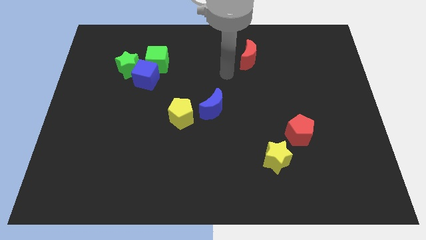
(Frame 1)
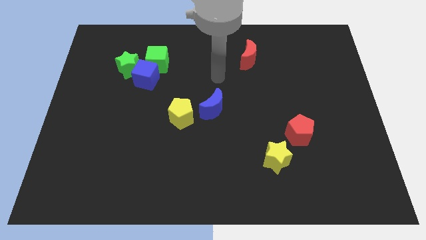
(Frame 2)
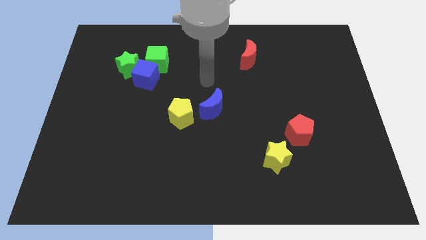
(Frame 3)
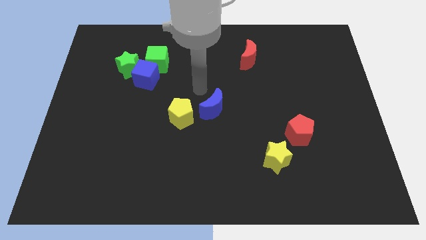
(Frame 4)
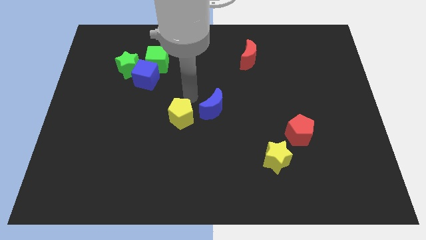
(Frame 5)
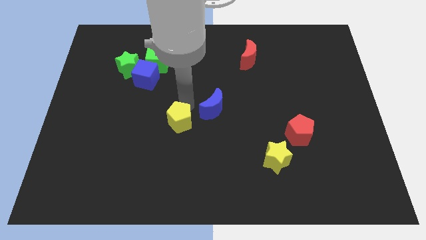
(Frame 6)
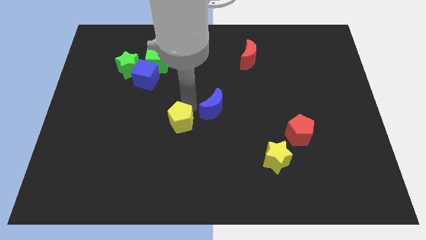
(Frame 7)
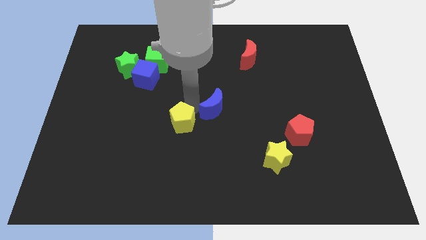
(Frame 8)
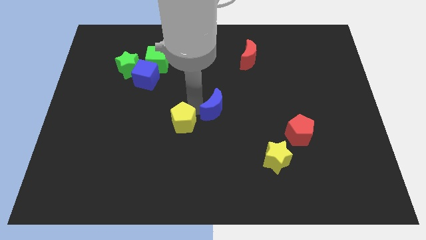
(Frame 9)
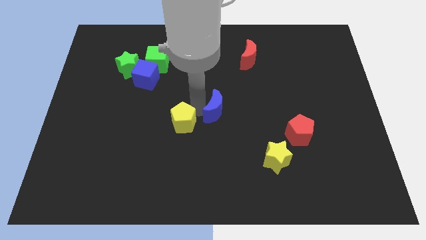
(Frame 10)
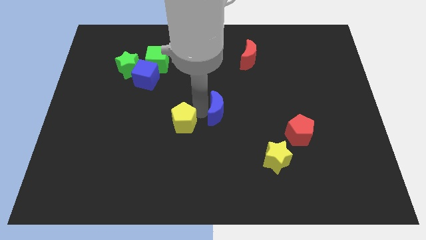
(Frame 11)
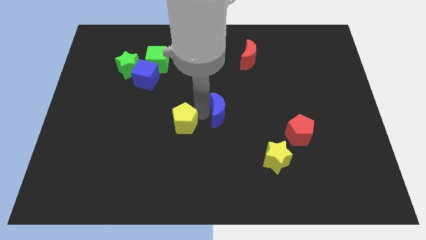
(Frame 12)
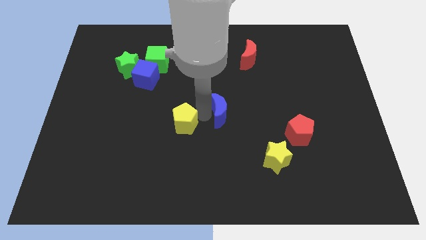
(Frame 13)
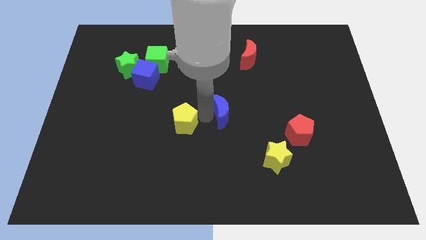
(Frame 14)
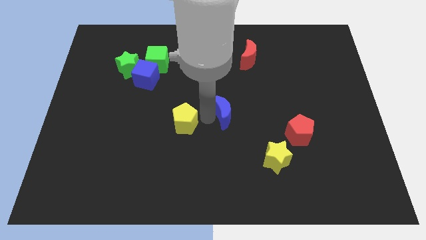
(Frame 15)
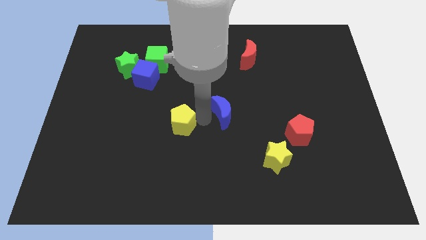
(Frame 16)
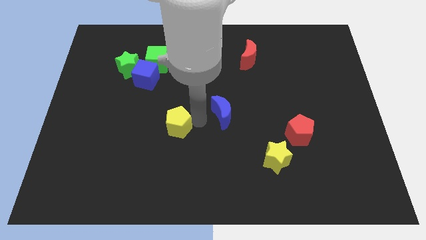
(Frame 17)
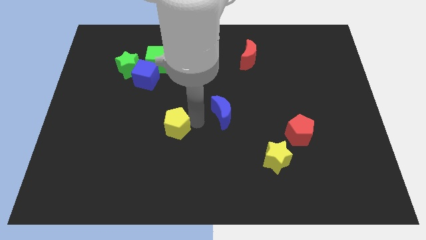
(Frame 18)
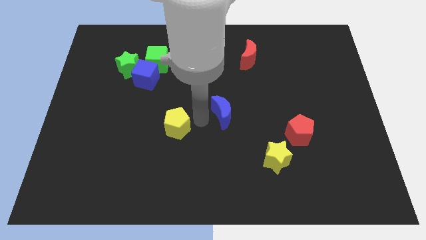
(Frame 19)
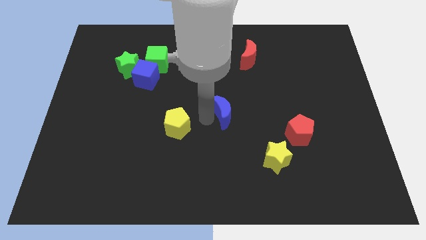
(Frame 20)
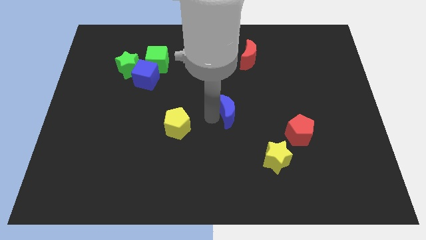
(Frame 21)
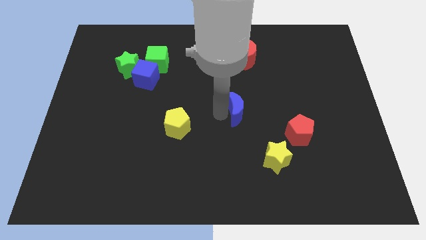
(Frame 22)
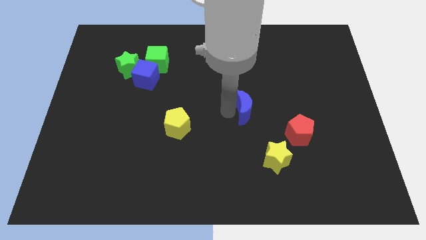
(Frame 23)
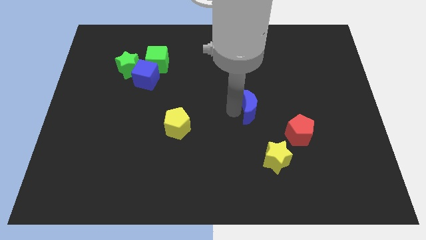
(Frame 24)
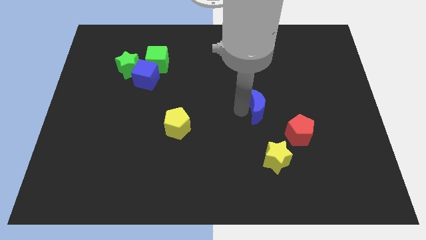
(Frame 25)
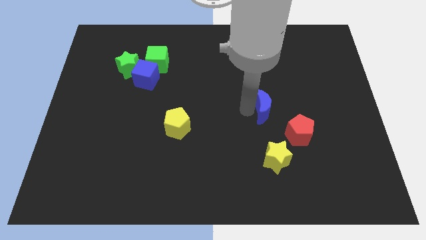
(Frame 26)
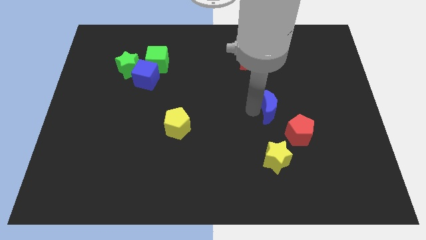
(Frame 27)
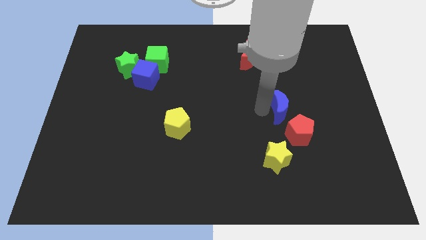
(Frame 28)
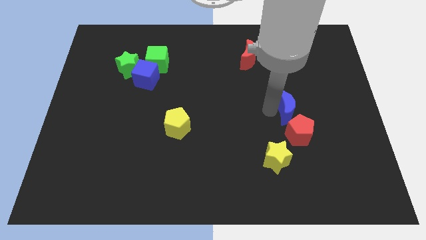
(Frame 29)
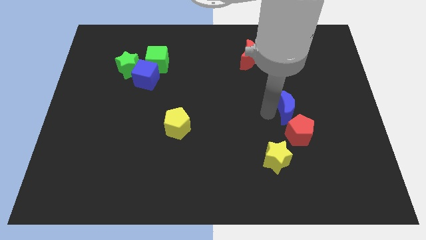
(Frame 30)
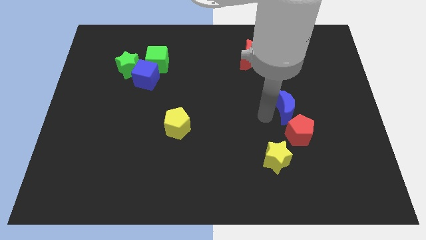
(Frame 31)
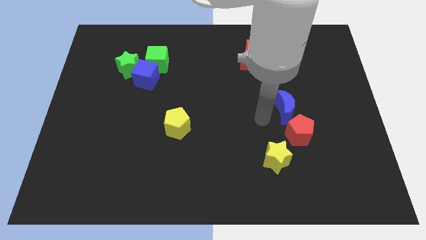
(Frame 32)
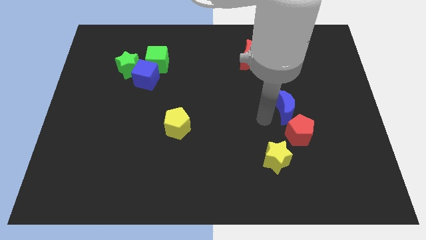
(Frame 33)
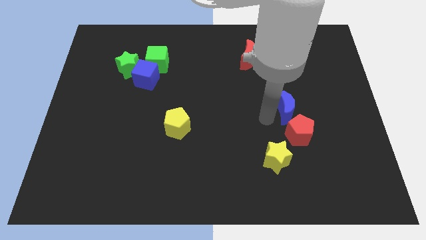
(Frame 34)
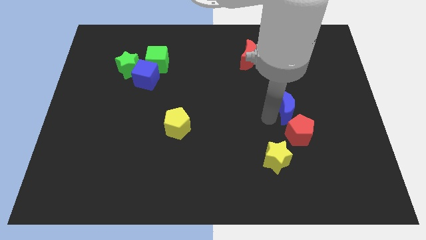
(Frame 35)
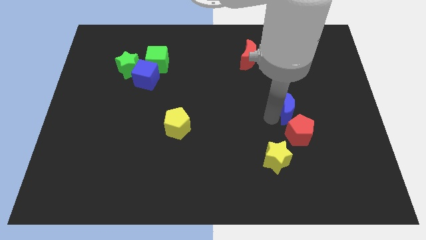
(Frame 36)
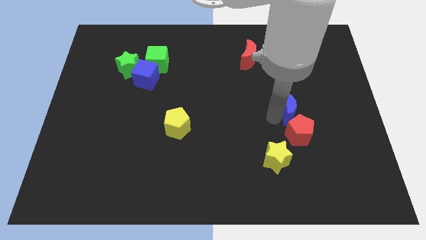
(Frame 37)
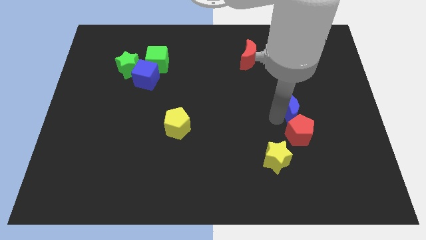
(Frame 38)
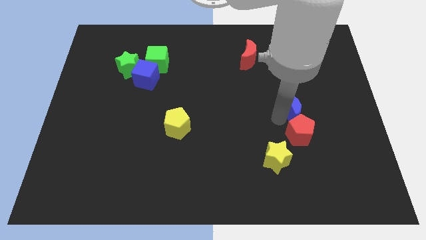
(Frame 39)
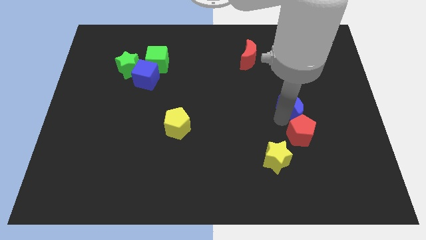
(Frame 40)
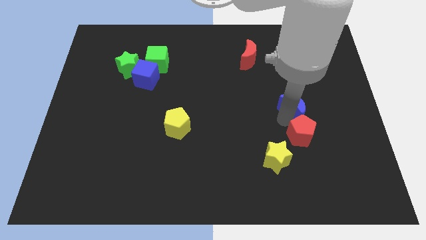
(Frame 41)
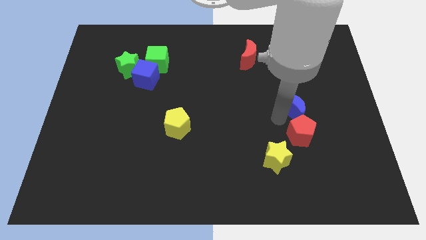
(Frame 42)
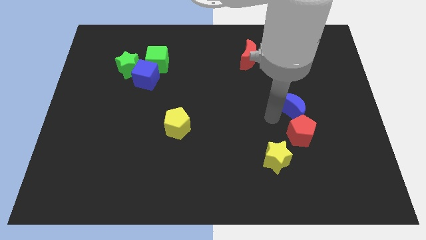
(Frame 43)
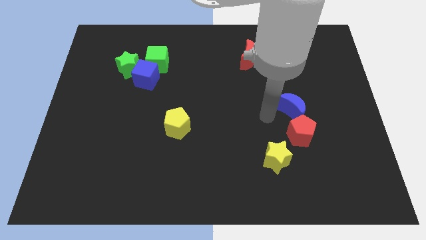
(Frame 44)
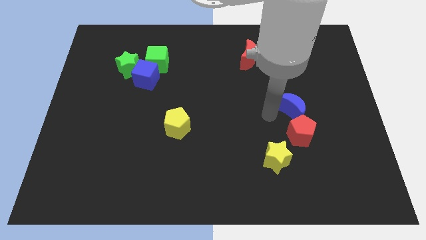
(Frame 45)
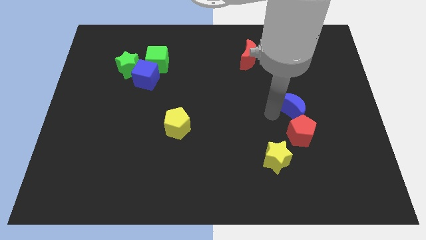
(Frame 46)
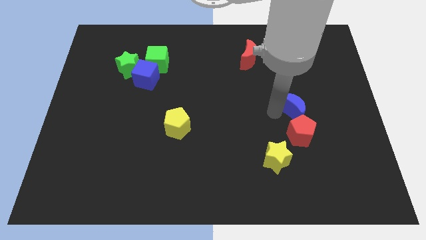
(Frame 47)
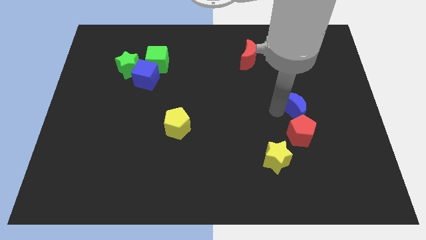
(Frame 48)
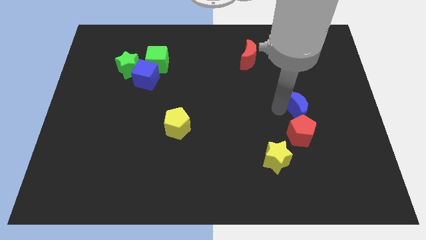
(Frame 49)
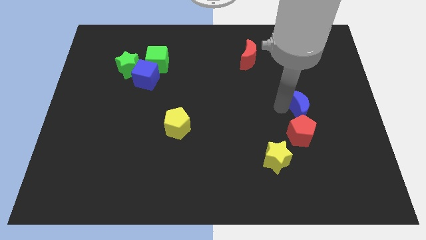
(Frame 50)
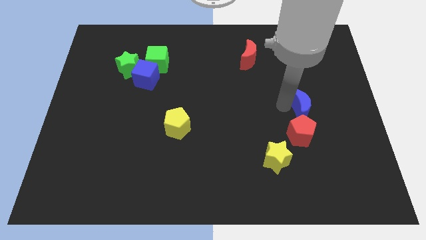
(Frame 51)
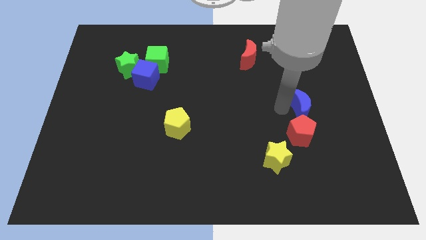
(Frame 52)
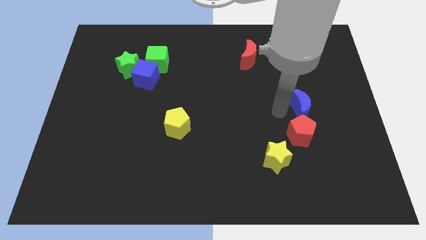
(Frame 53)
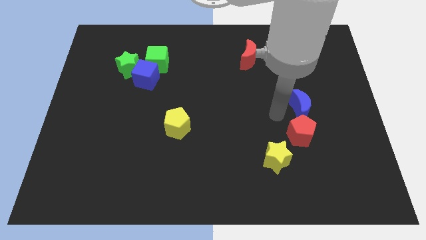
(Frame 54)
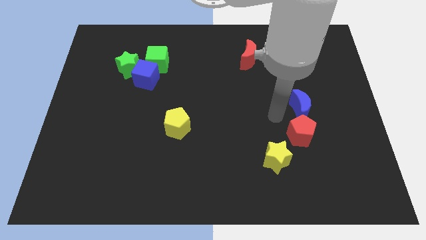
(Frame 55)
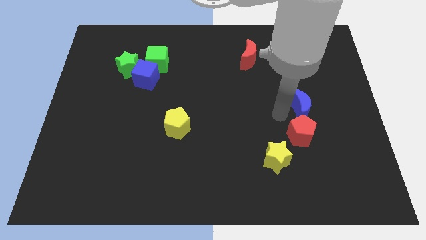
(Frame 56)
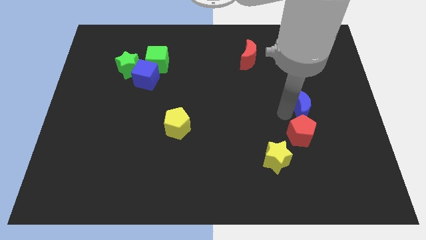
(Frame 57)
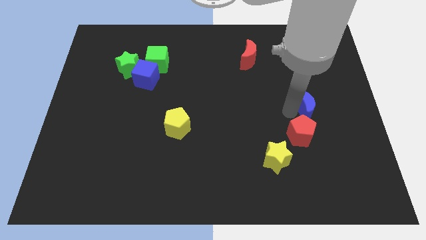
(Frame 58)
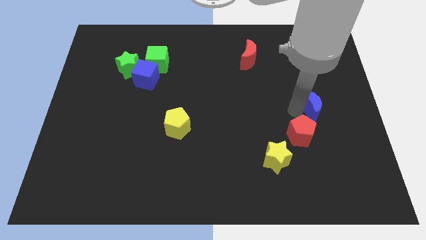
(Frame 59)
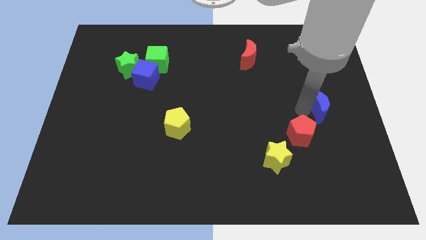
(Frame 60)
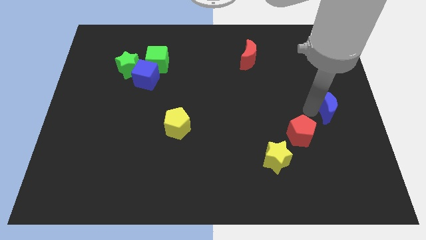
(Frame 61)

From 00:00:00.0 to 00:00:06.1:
slide the blue moon to the right side
